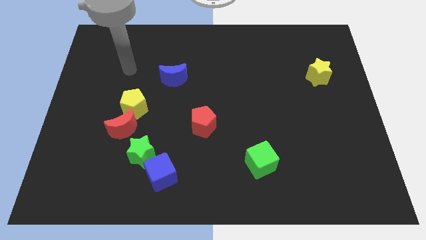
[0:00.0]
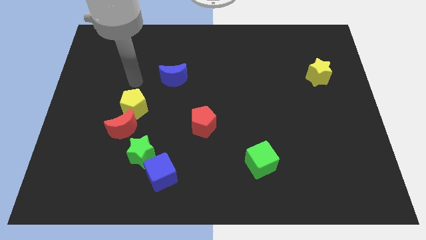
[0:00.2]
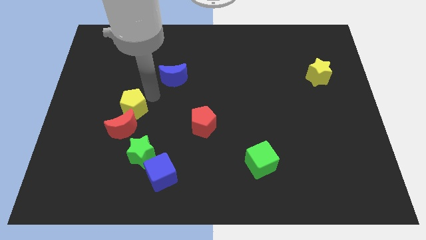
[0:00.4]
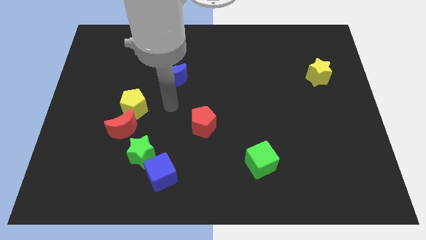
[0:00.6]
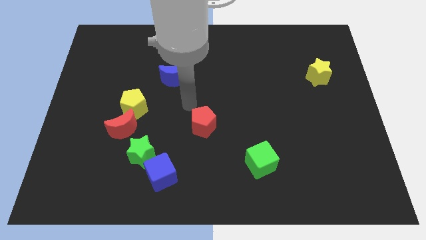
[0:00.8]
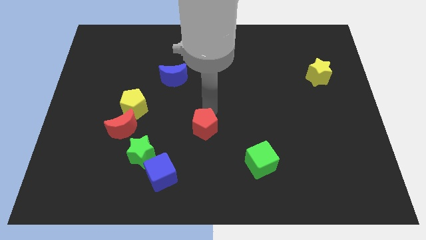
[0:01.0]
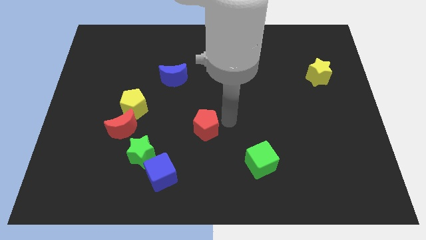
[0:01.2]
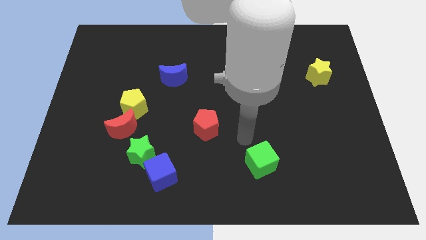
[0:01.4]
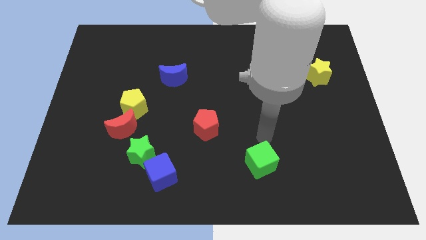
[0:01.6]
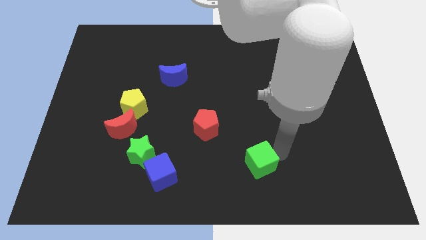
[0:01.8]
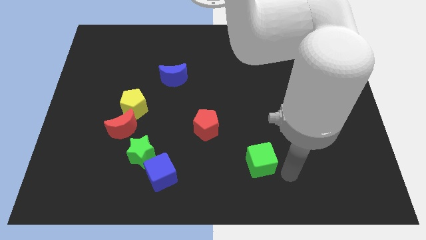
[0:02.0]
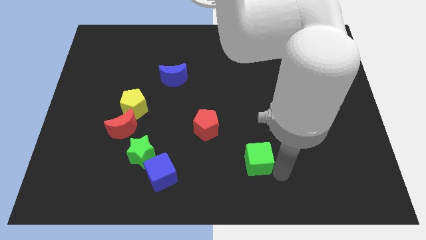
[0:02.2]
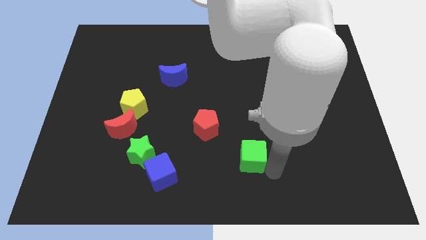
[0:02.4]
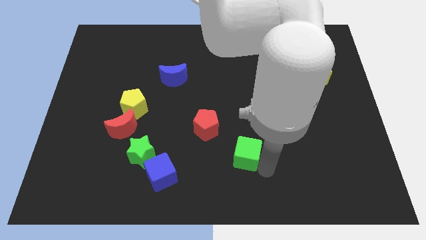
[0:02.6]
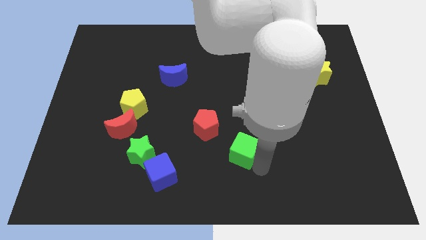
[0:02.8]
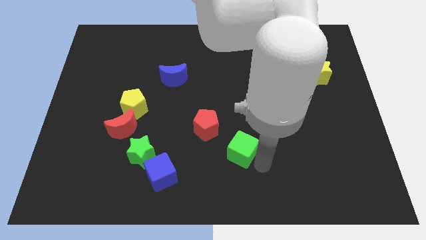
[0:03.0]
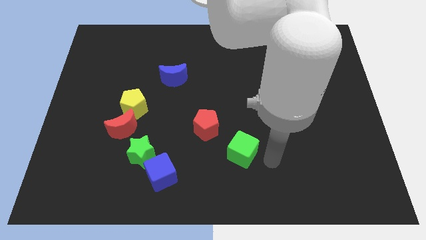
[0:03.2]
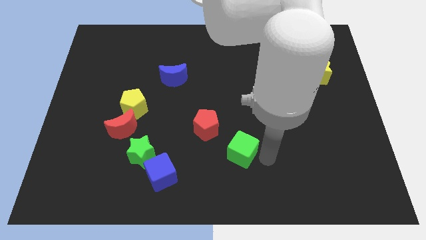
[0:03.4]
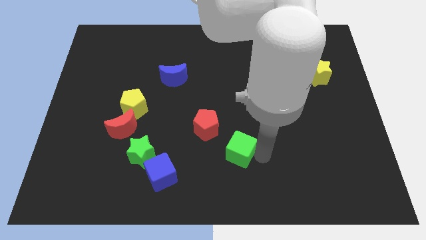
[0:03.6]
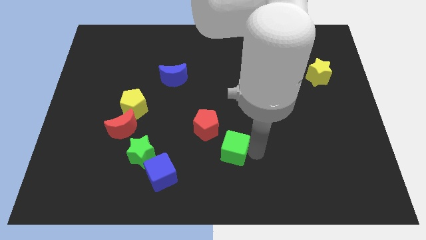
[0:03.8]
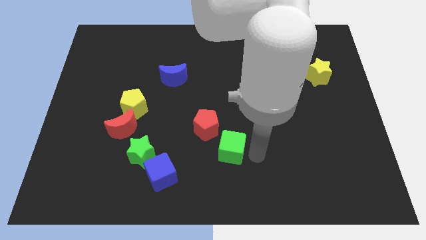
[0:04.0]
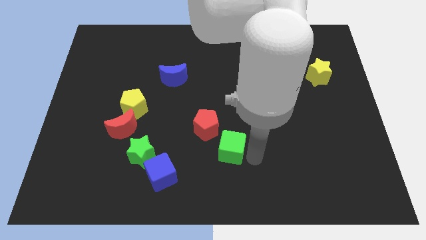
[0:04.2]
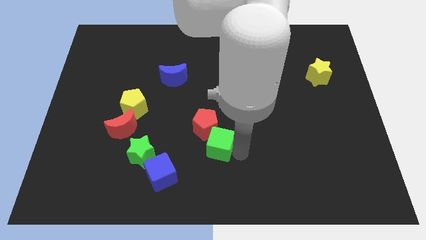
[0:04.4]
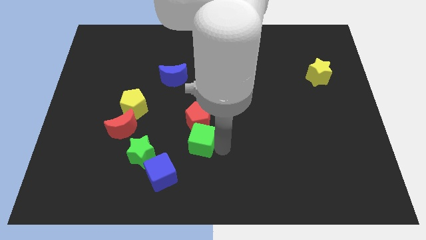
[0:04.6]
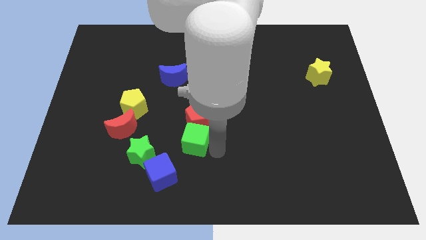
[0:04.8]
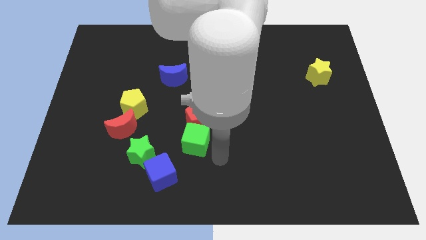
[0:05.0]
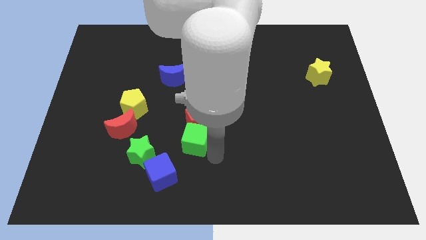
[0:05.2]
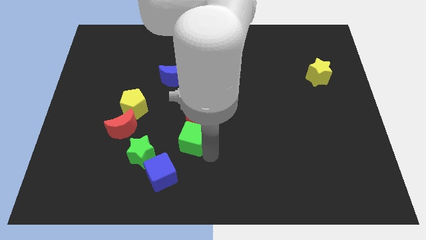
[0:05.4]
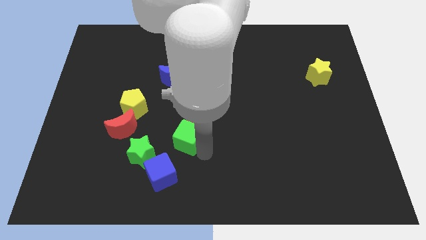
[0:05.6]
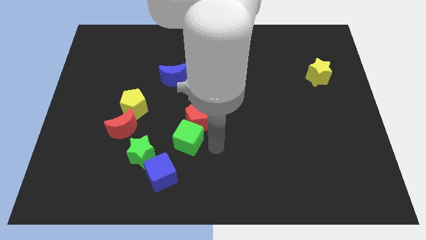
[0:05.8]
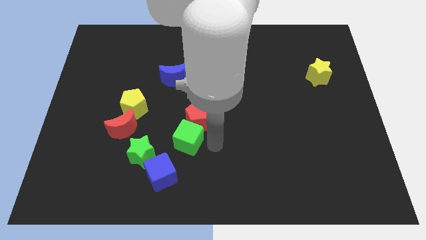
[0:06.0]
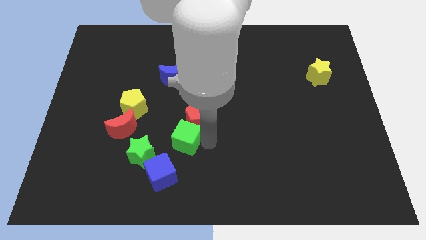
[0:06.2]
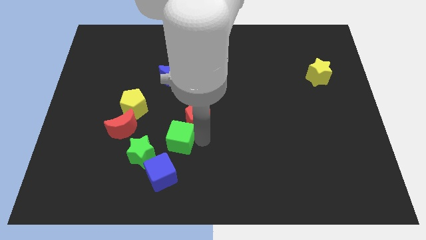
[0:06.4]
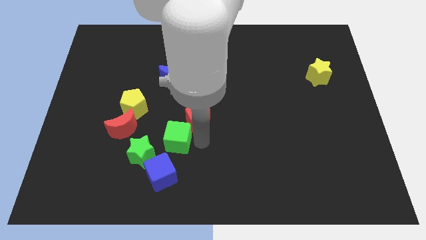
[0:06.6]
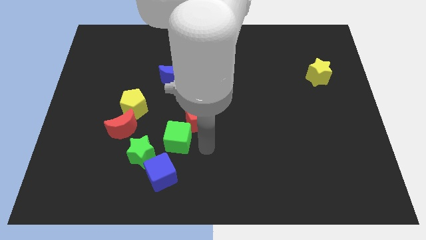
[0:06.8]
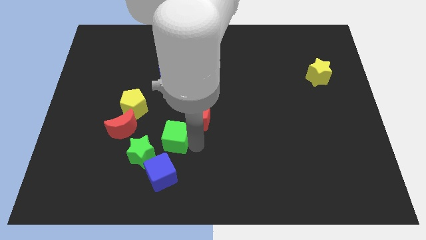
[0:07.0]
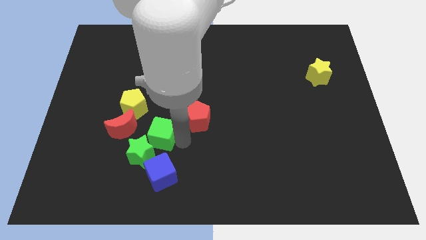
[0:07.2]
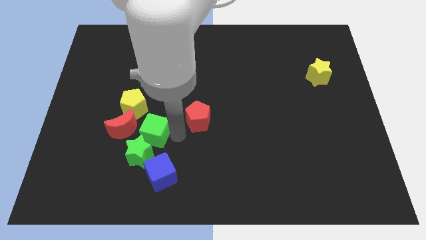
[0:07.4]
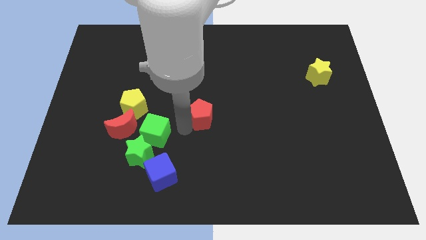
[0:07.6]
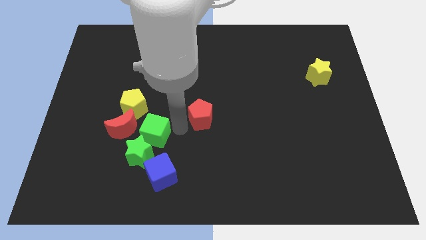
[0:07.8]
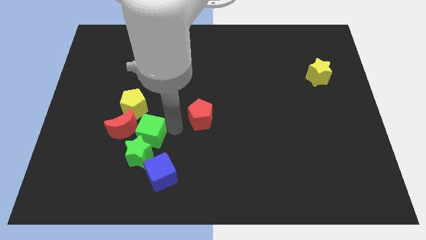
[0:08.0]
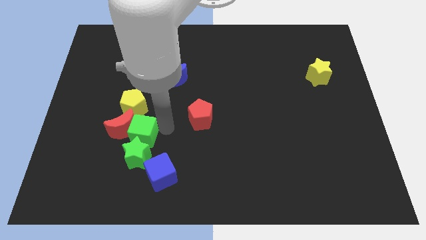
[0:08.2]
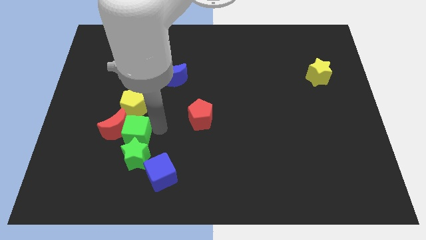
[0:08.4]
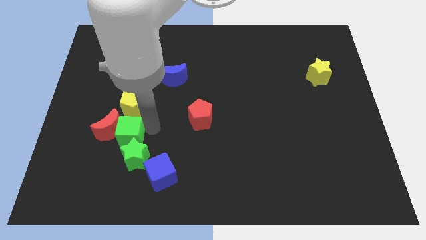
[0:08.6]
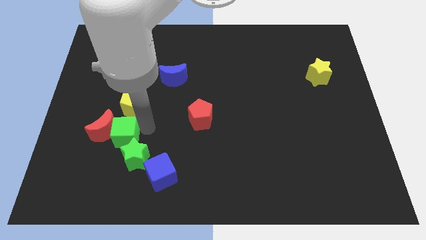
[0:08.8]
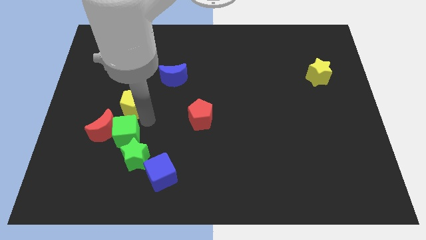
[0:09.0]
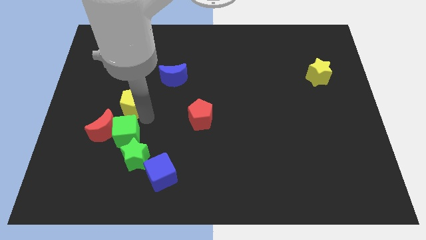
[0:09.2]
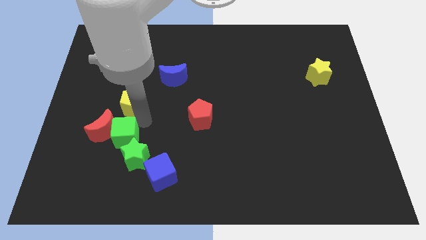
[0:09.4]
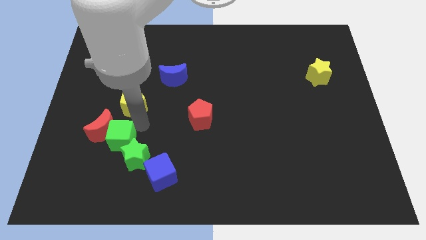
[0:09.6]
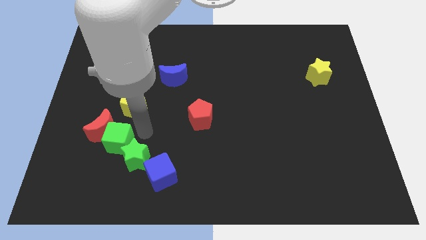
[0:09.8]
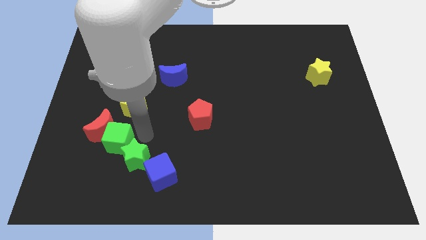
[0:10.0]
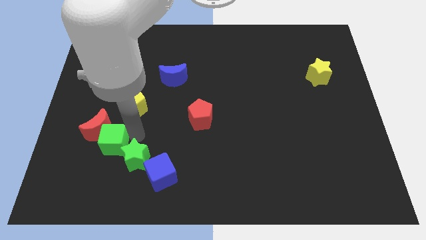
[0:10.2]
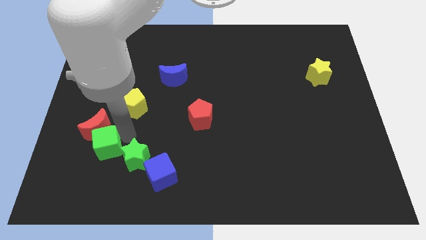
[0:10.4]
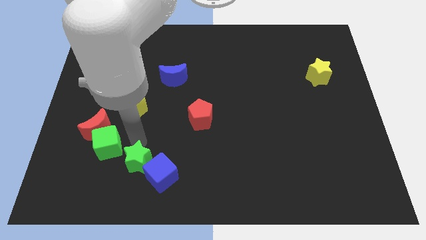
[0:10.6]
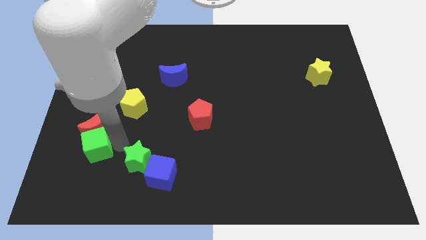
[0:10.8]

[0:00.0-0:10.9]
push the green cube to the bottom left side of the red moon

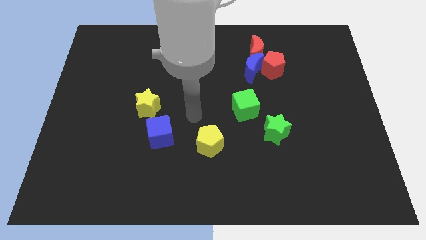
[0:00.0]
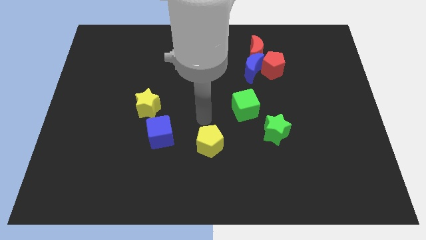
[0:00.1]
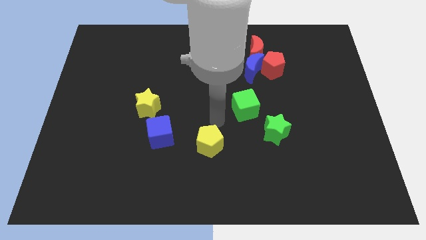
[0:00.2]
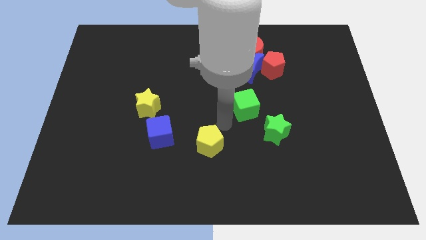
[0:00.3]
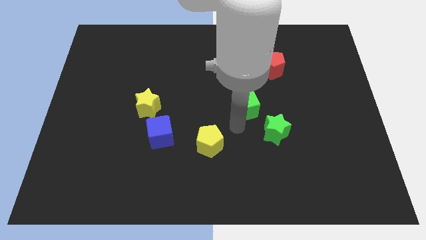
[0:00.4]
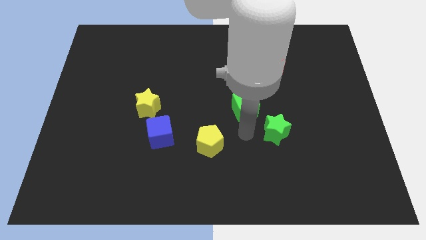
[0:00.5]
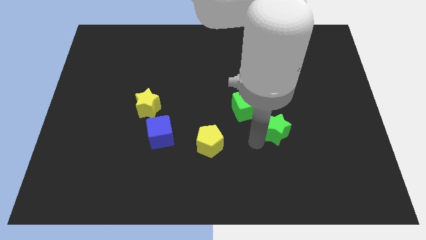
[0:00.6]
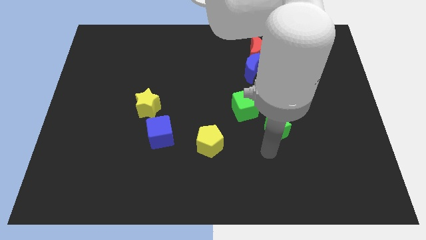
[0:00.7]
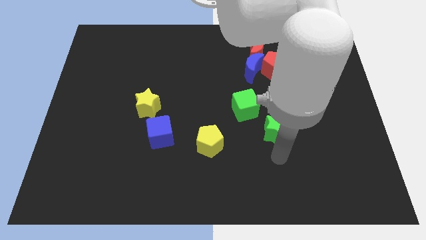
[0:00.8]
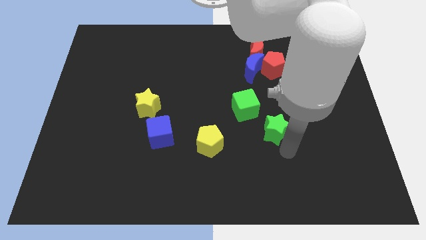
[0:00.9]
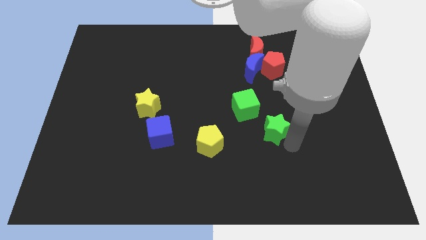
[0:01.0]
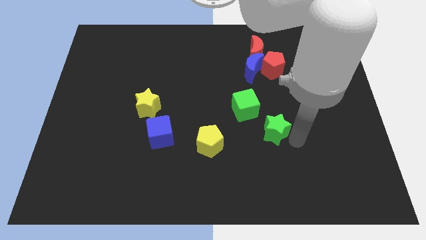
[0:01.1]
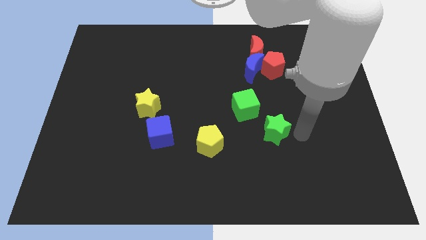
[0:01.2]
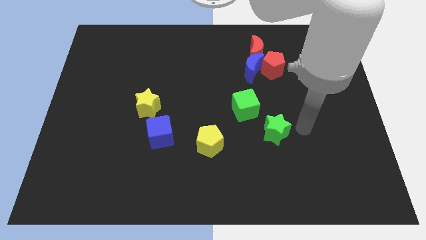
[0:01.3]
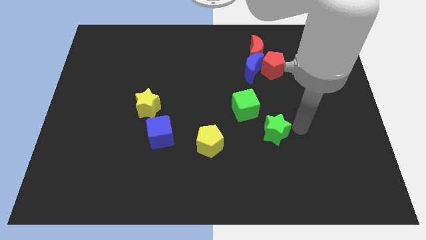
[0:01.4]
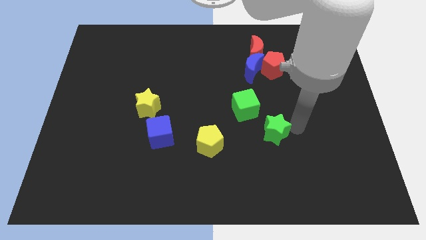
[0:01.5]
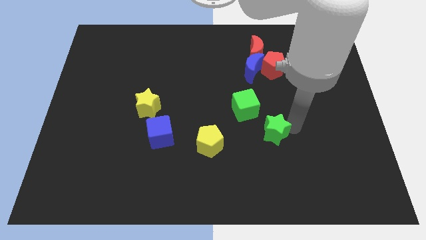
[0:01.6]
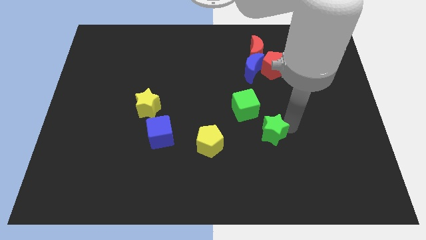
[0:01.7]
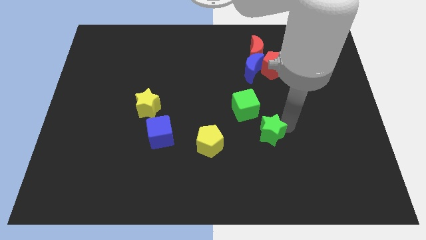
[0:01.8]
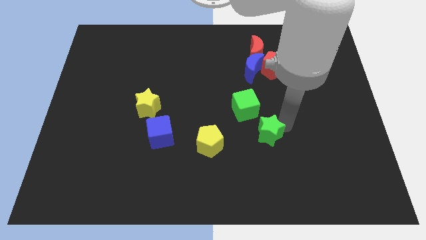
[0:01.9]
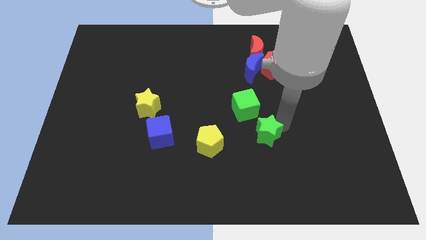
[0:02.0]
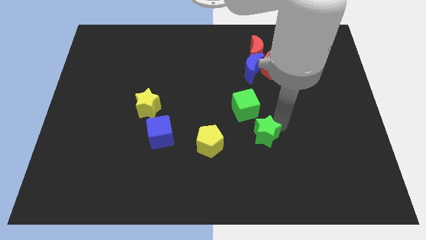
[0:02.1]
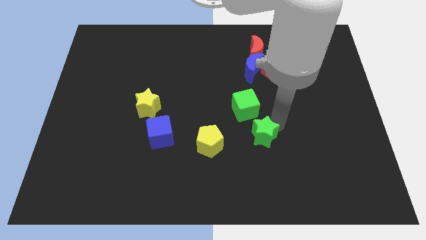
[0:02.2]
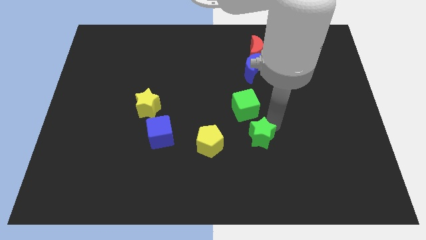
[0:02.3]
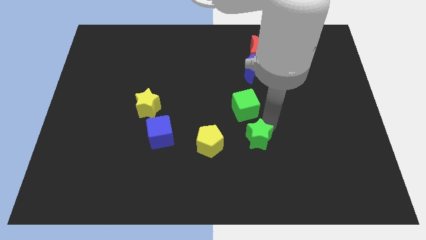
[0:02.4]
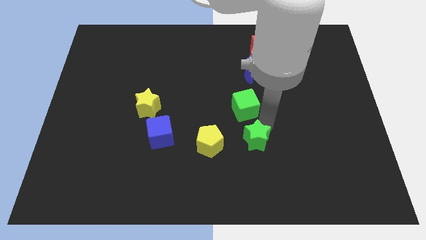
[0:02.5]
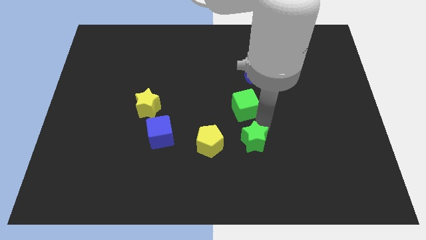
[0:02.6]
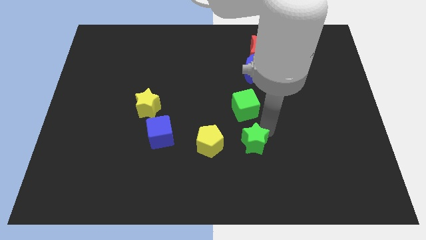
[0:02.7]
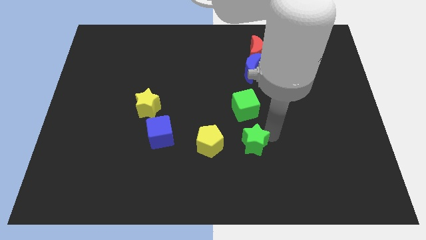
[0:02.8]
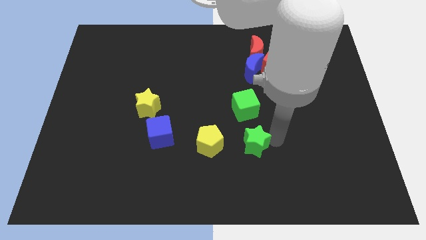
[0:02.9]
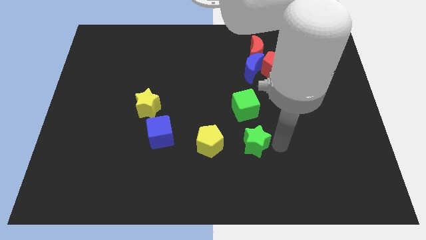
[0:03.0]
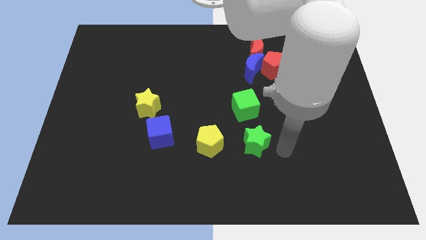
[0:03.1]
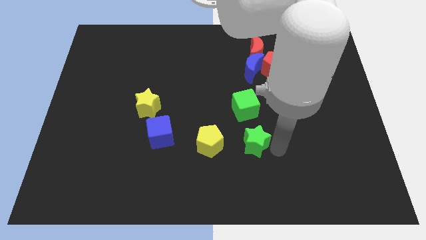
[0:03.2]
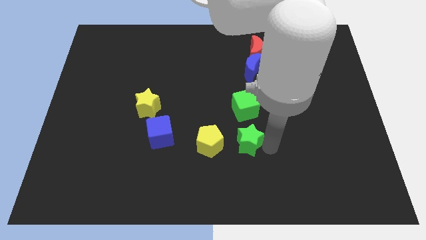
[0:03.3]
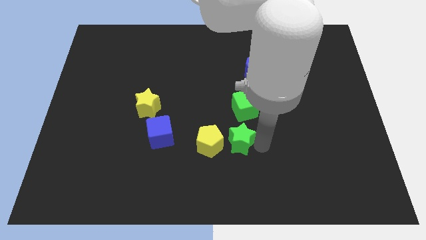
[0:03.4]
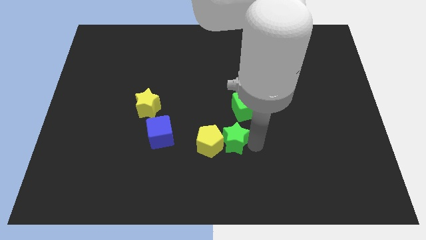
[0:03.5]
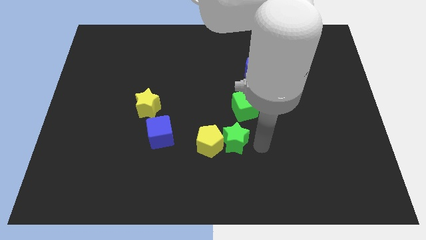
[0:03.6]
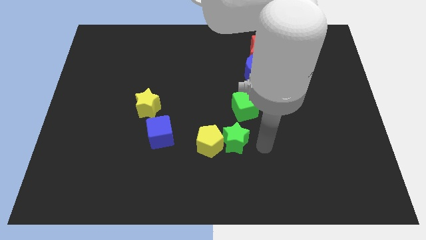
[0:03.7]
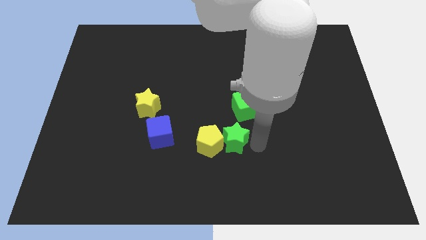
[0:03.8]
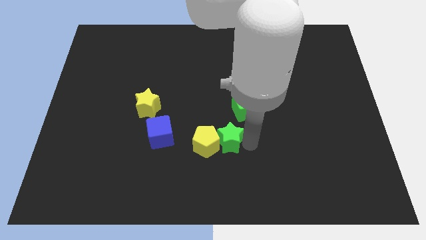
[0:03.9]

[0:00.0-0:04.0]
put the green star to the right side of the blue cube
